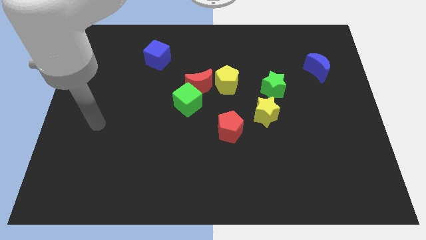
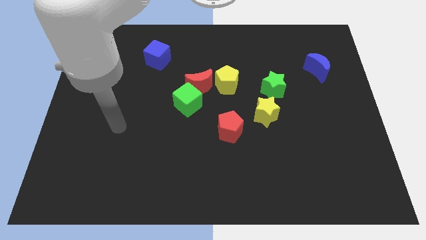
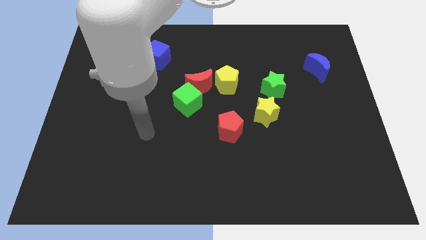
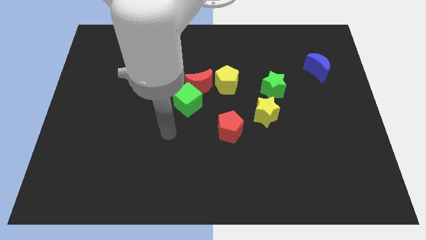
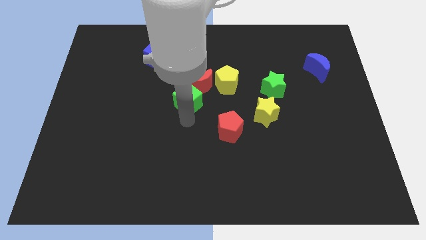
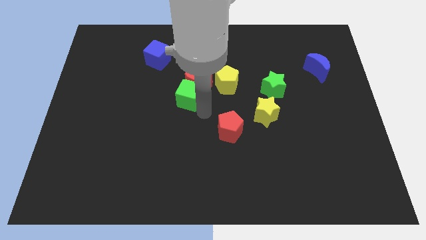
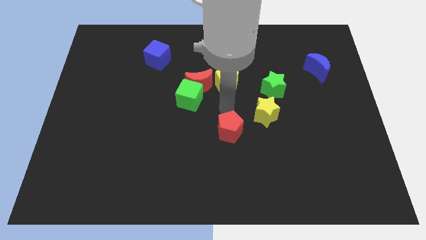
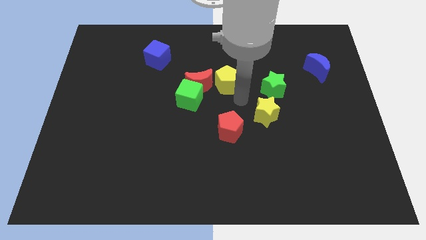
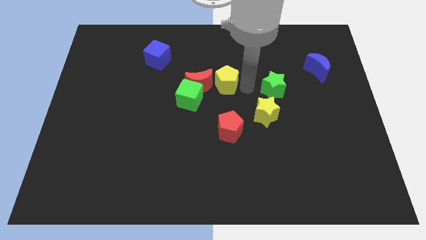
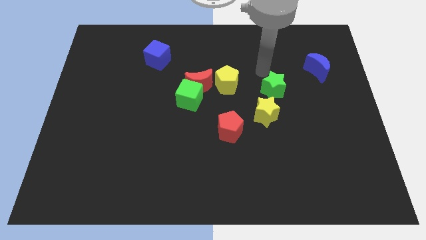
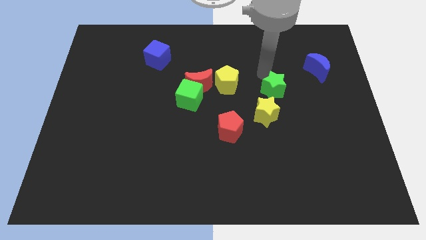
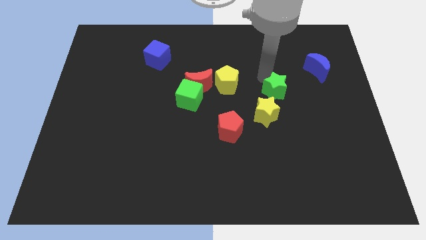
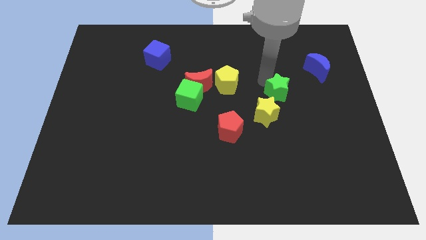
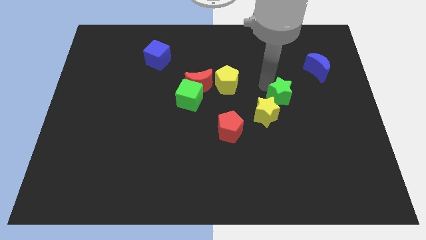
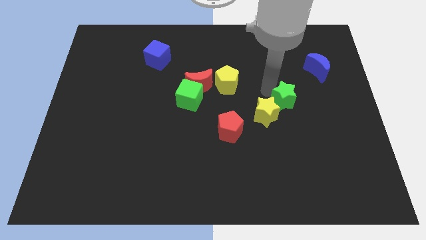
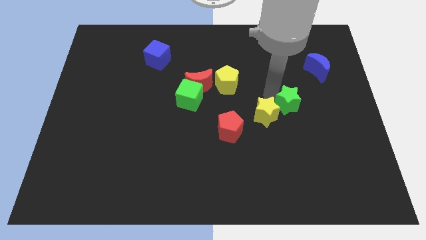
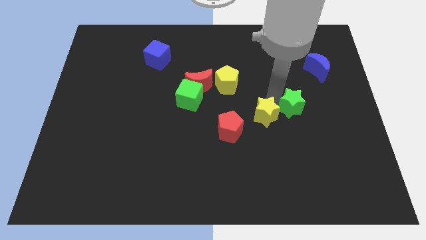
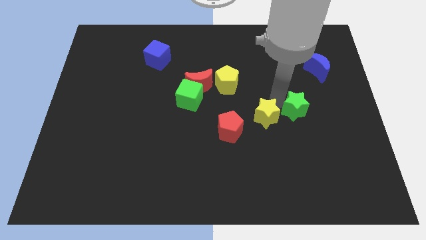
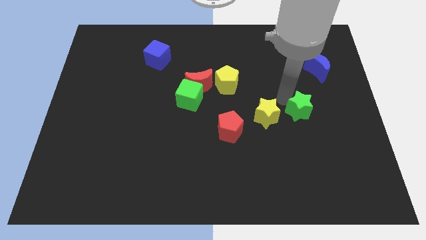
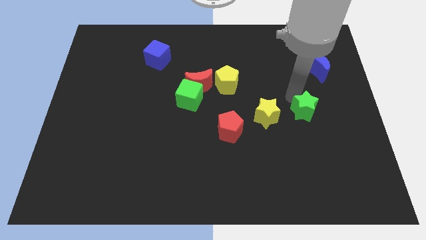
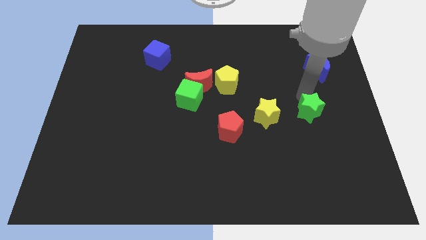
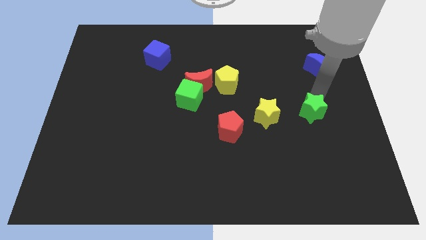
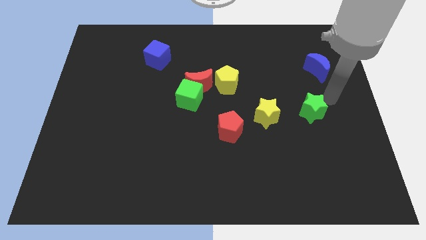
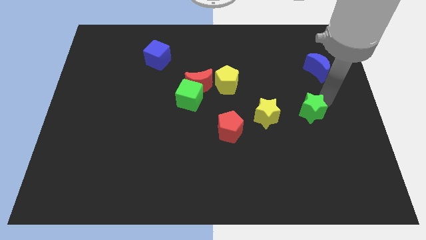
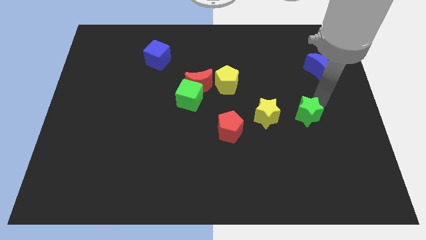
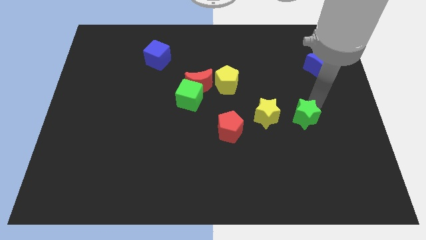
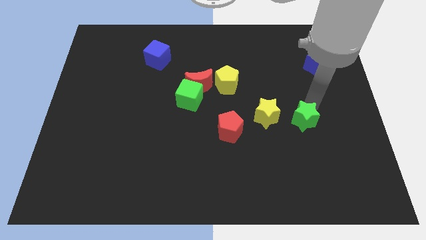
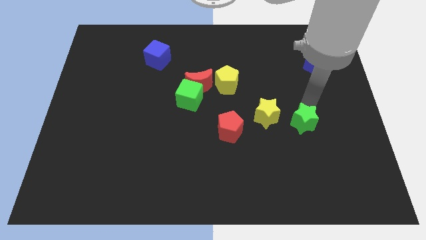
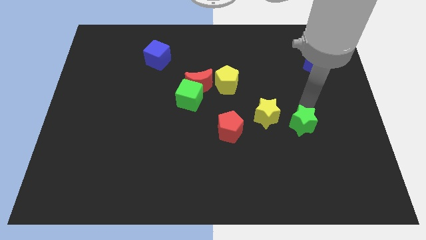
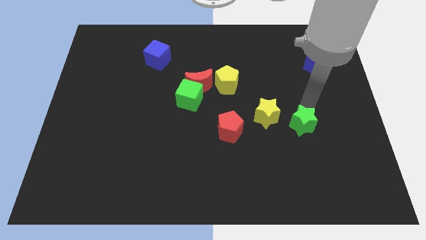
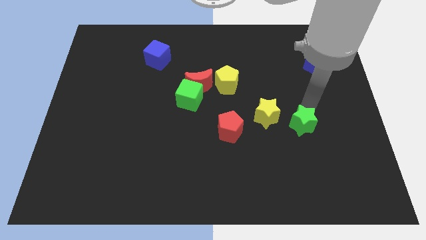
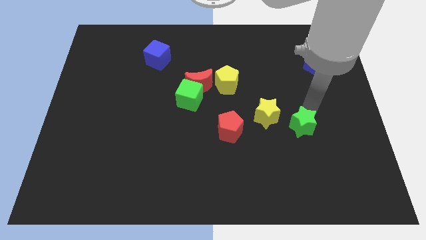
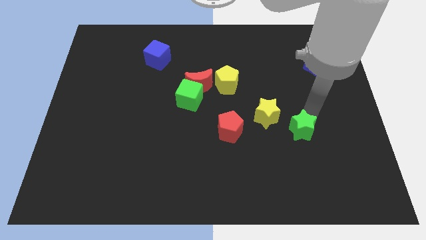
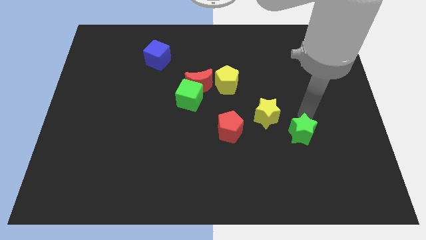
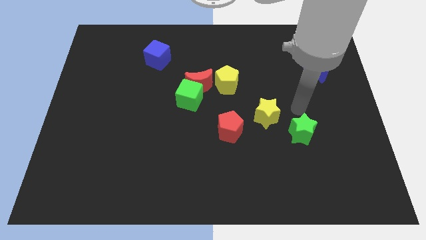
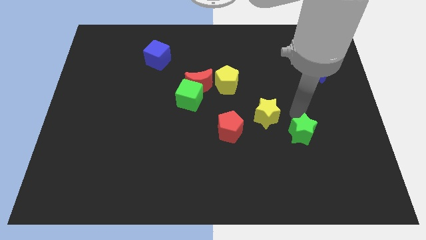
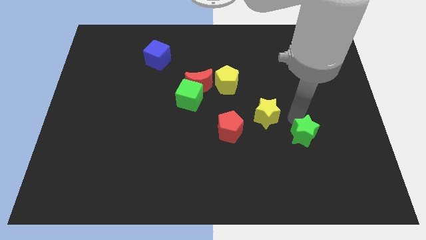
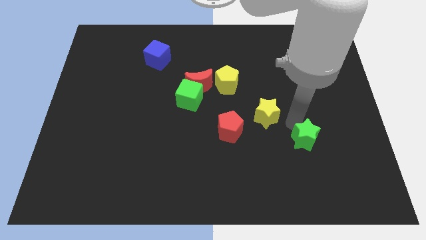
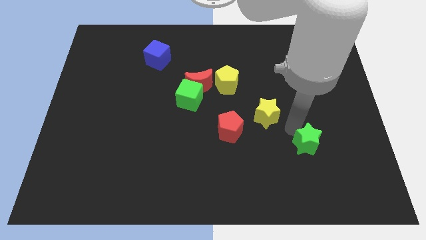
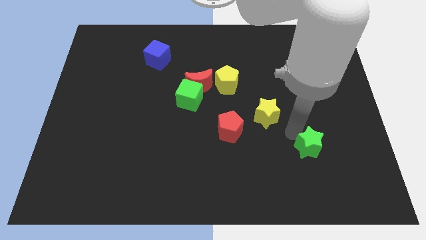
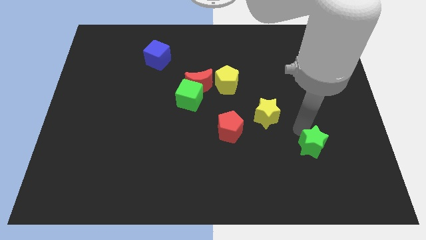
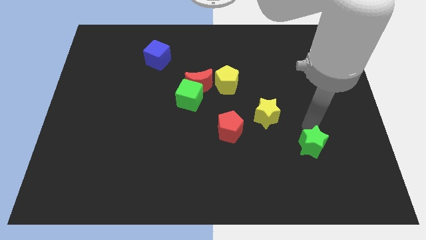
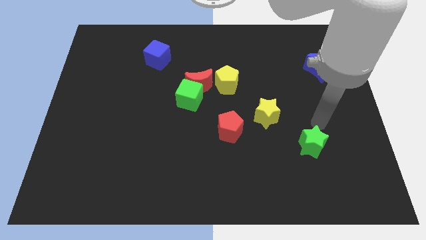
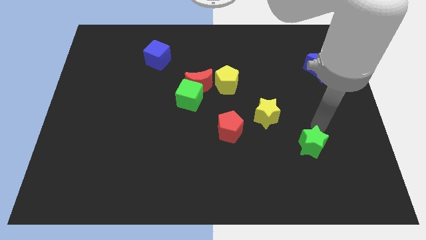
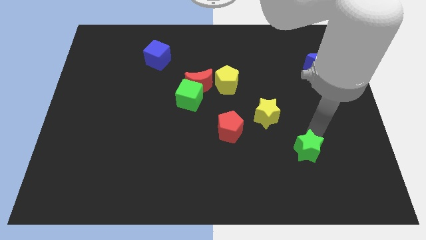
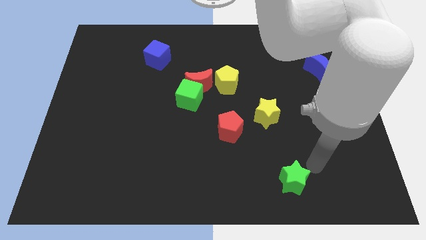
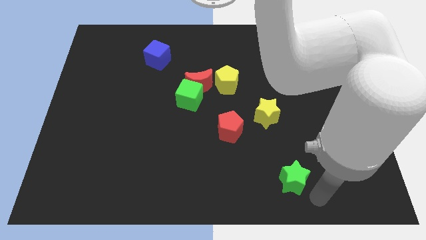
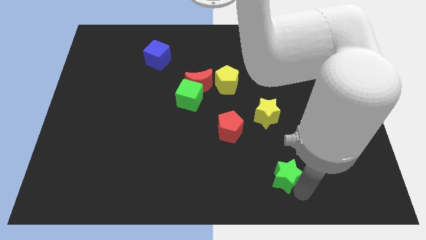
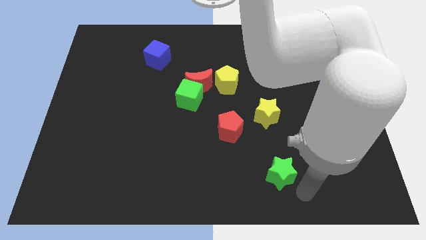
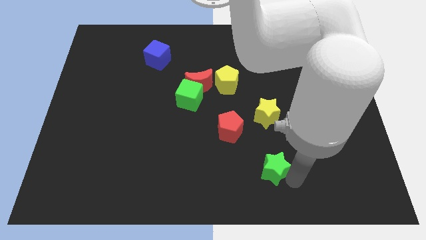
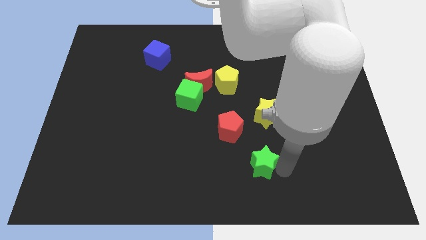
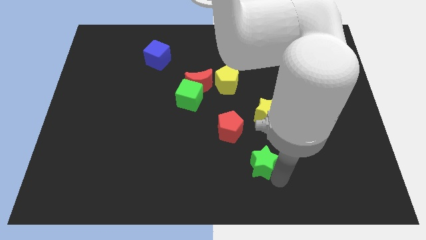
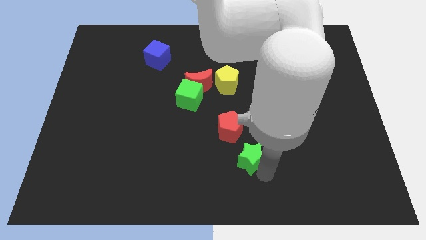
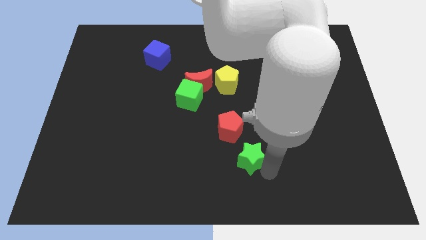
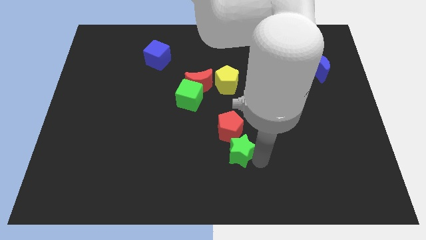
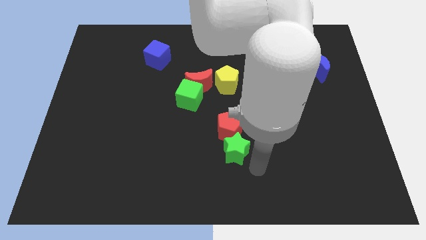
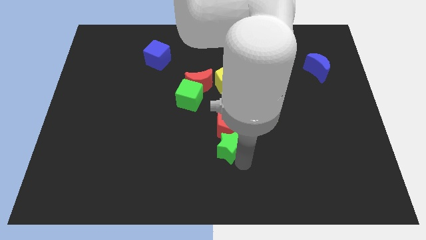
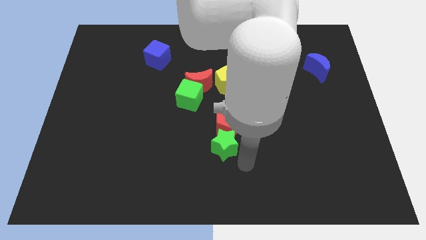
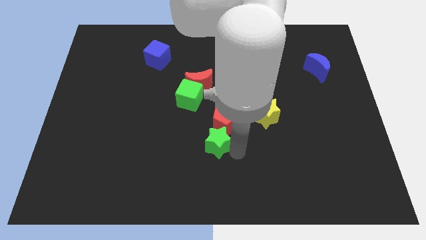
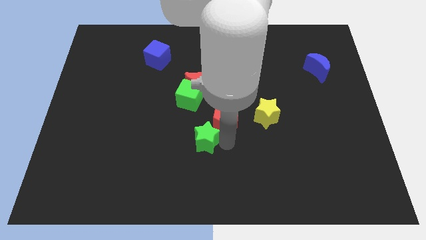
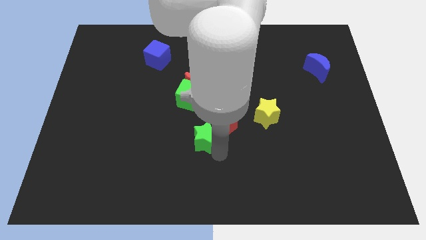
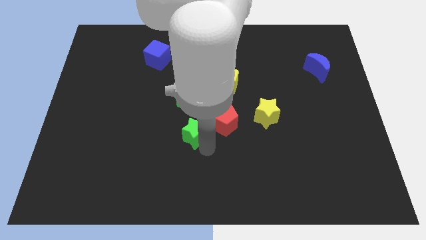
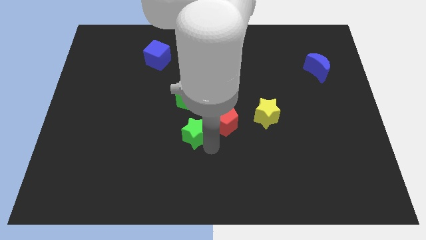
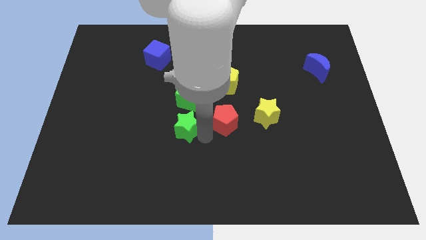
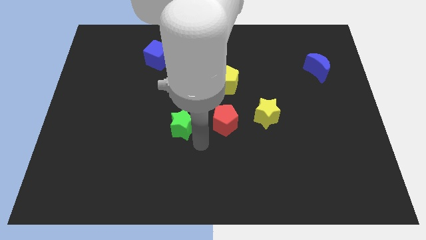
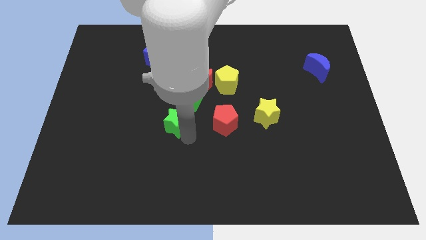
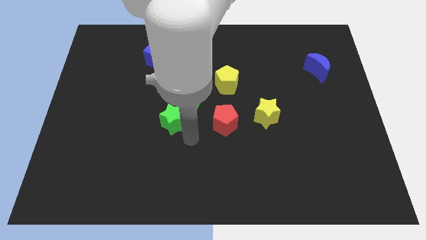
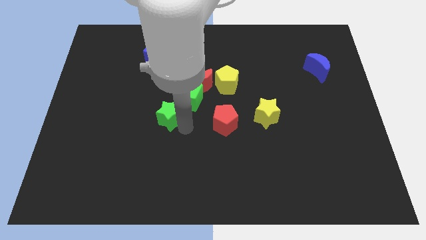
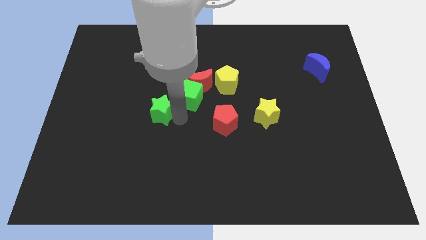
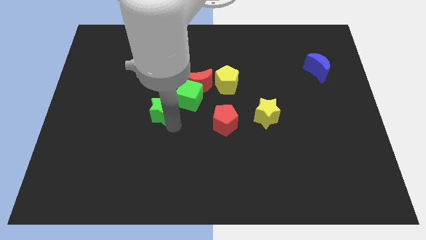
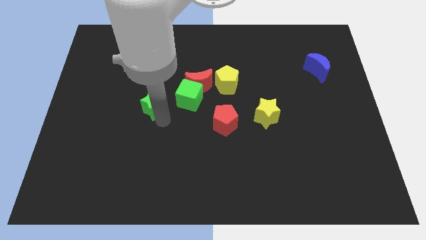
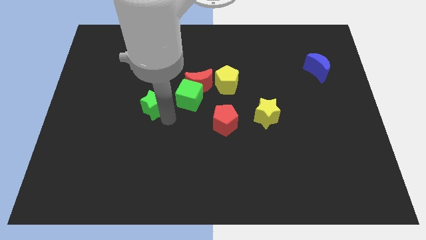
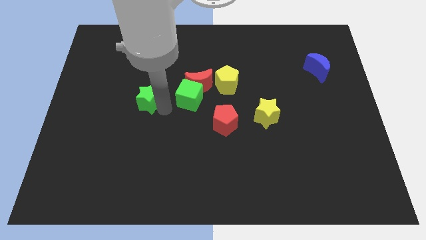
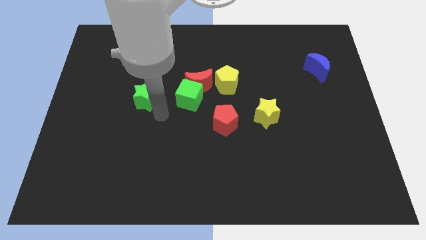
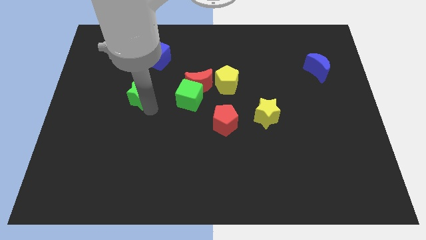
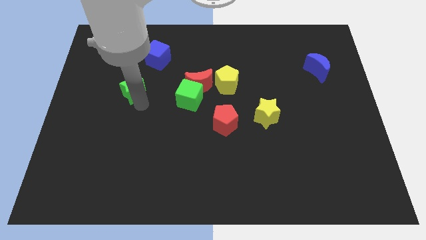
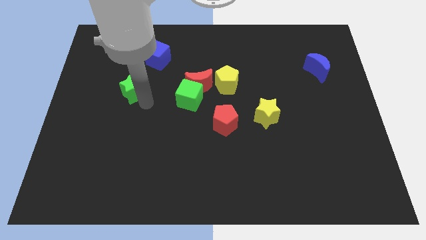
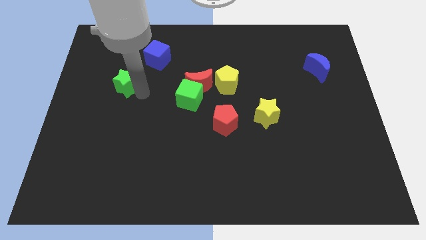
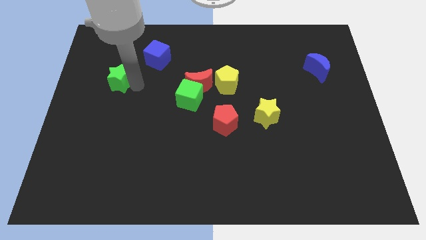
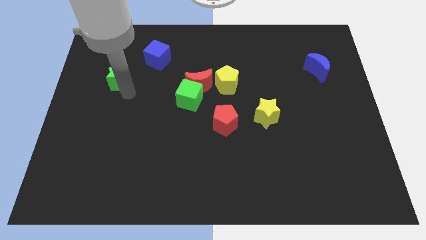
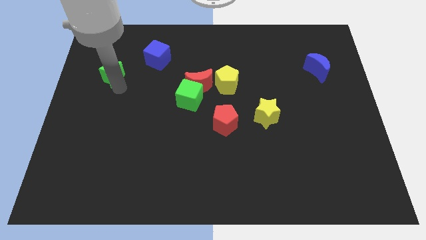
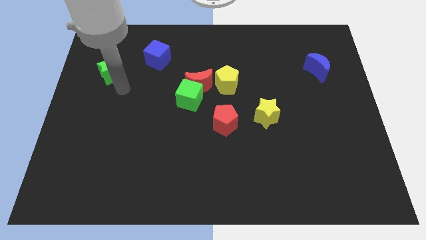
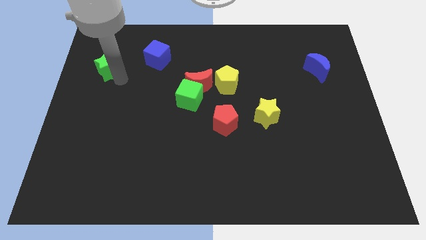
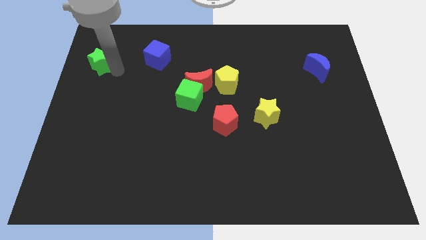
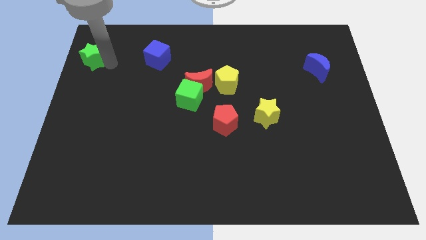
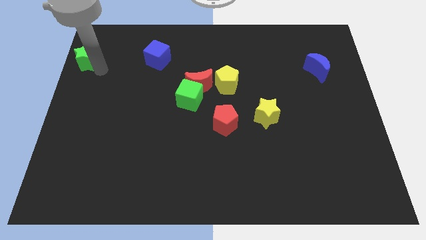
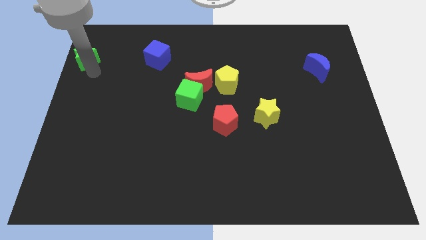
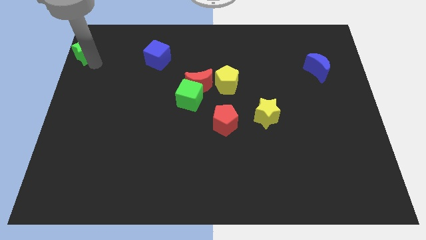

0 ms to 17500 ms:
push the green star to the top left
